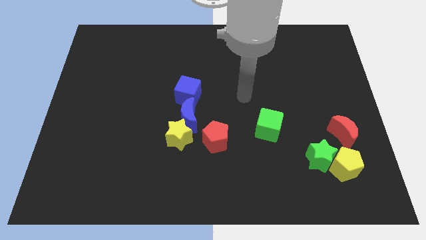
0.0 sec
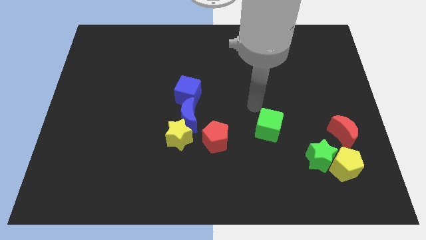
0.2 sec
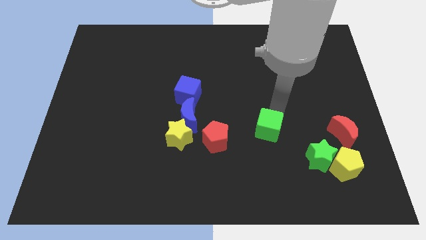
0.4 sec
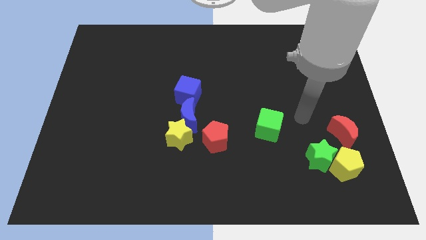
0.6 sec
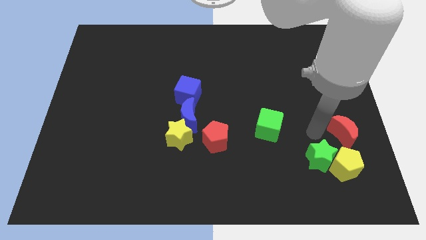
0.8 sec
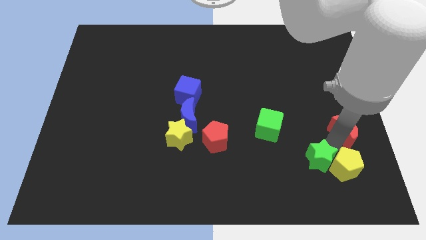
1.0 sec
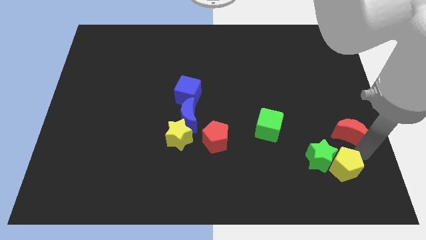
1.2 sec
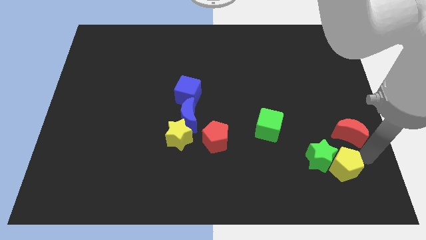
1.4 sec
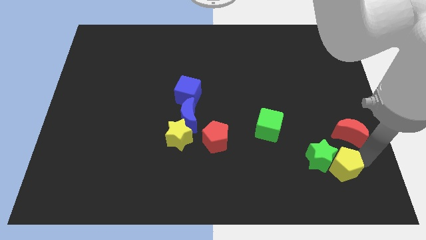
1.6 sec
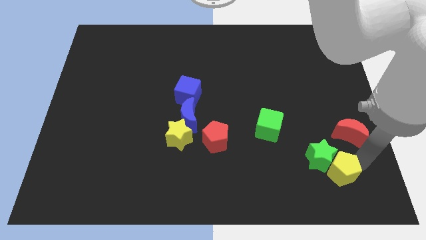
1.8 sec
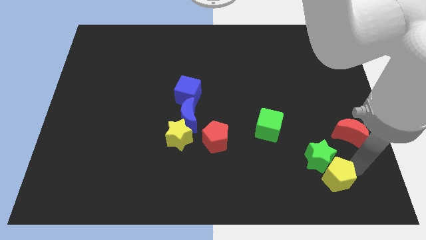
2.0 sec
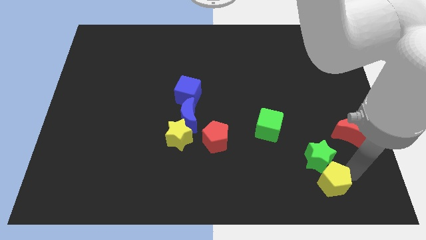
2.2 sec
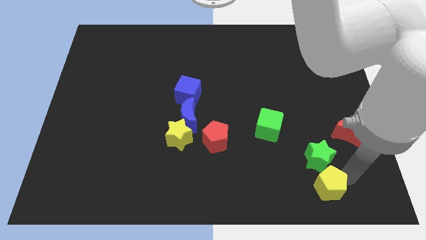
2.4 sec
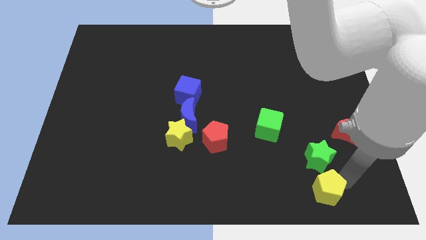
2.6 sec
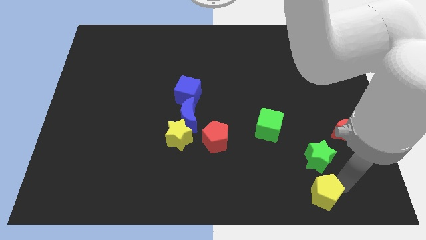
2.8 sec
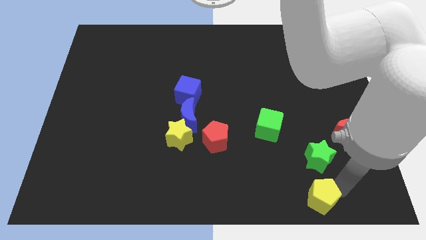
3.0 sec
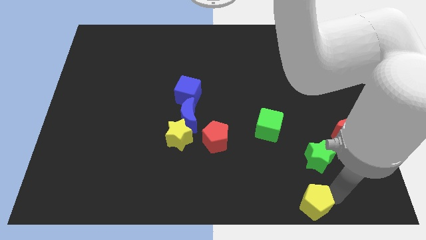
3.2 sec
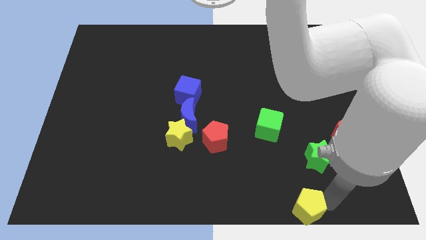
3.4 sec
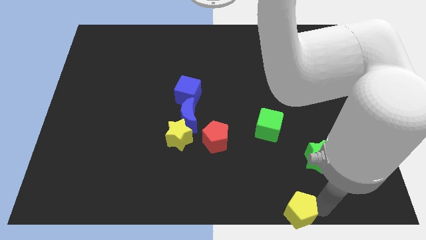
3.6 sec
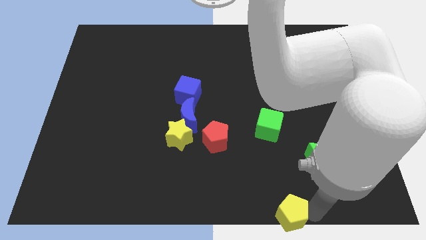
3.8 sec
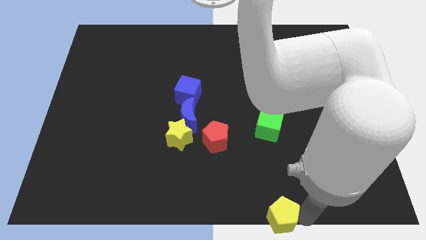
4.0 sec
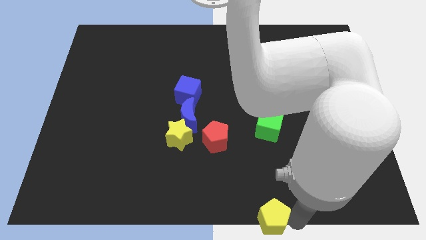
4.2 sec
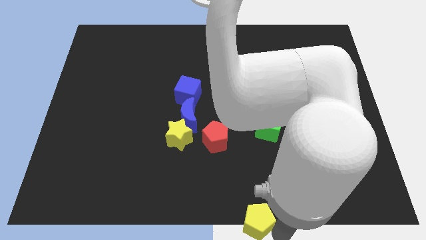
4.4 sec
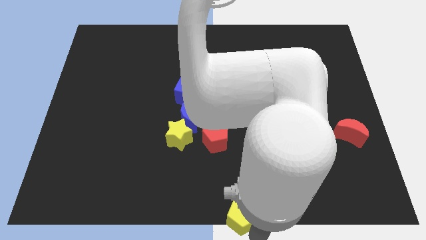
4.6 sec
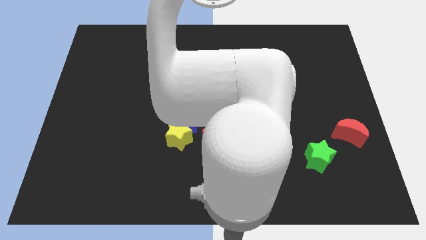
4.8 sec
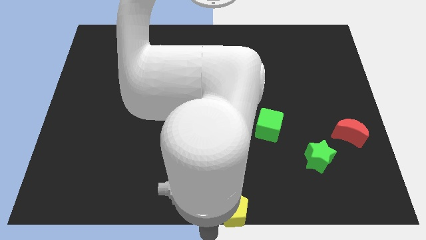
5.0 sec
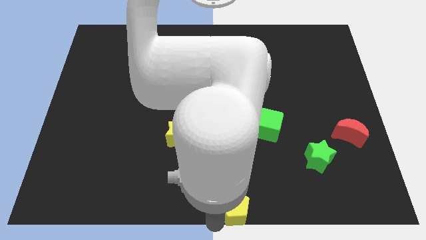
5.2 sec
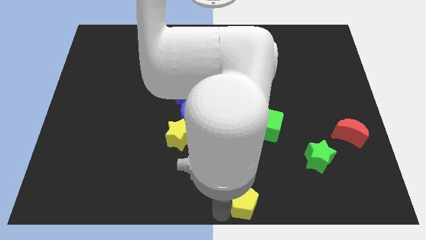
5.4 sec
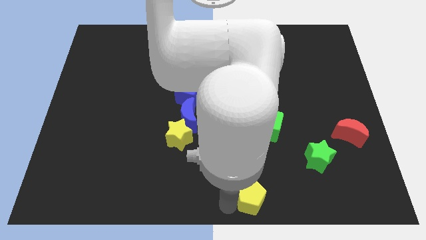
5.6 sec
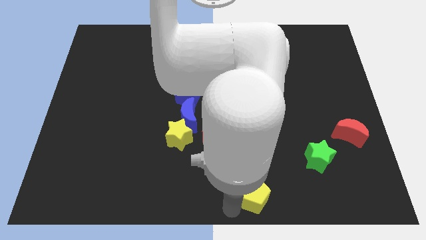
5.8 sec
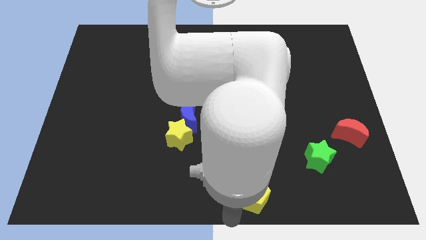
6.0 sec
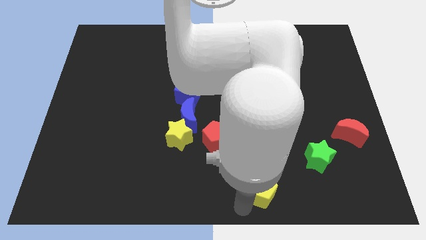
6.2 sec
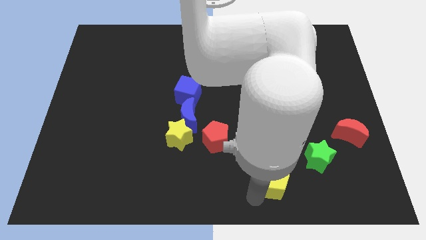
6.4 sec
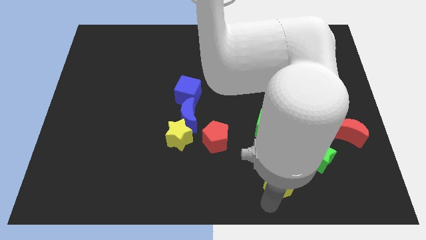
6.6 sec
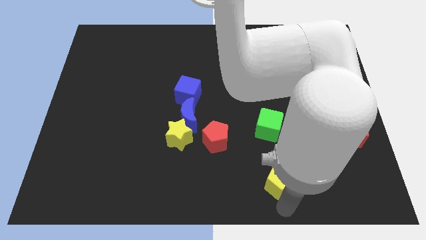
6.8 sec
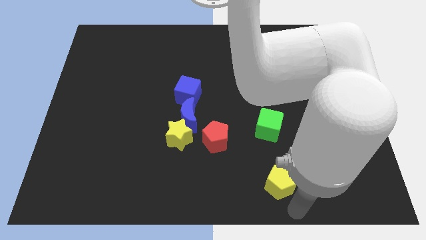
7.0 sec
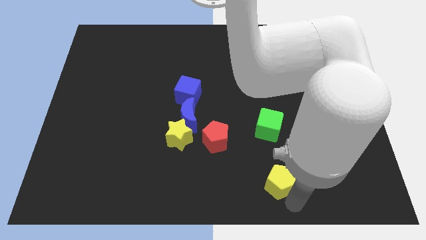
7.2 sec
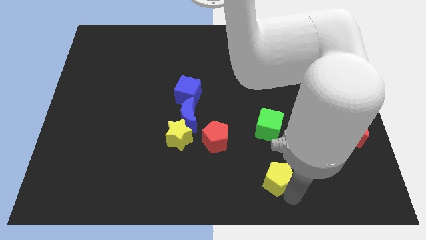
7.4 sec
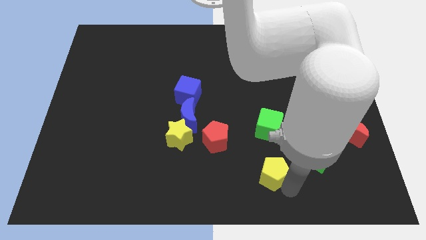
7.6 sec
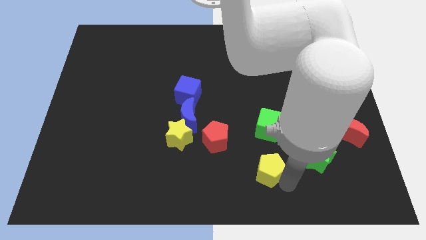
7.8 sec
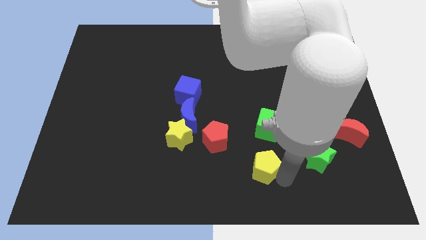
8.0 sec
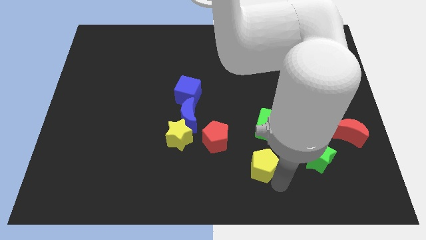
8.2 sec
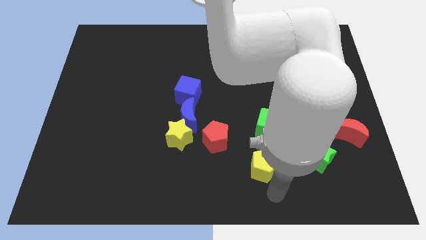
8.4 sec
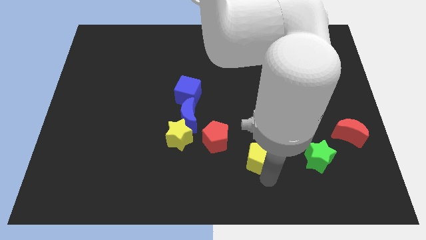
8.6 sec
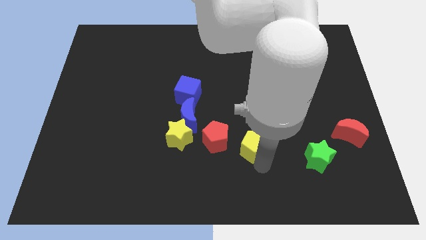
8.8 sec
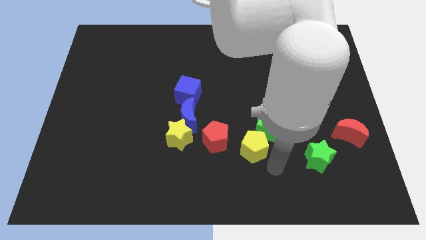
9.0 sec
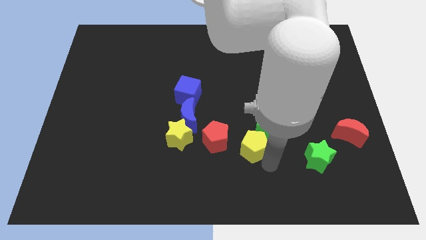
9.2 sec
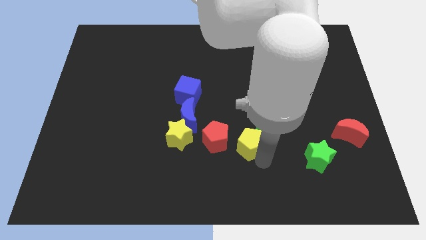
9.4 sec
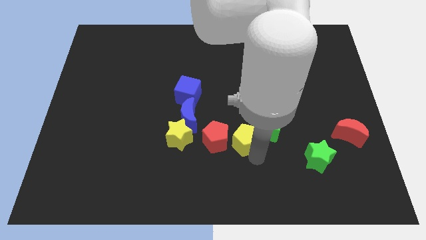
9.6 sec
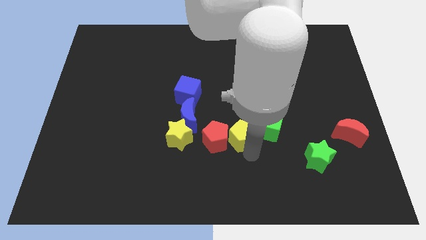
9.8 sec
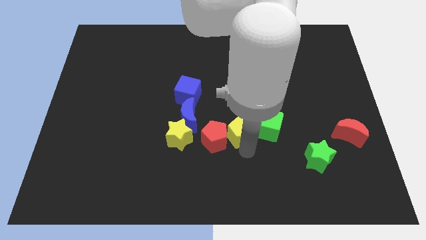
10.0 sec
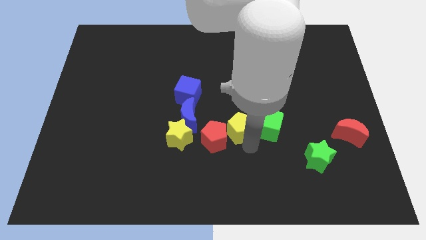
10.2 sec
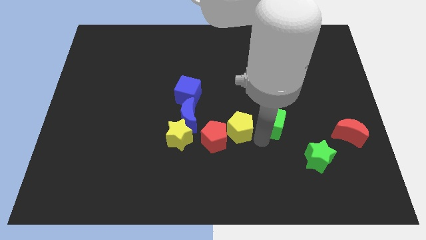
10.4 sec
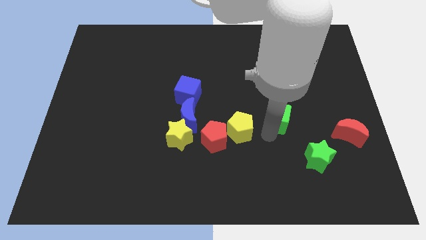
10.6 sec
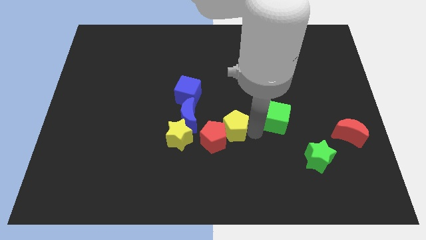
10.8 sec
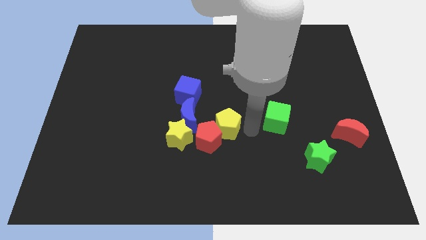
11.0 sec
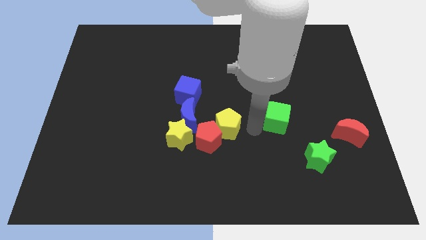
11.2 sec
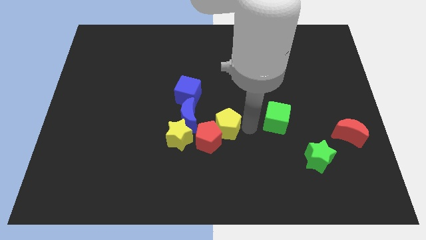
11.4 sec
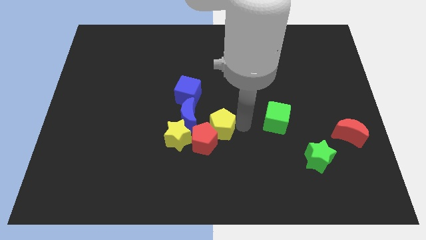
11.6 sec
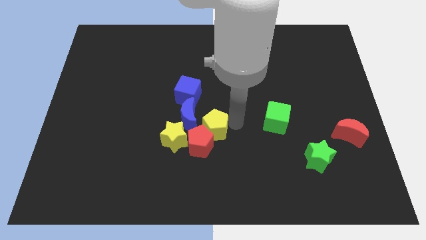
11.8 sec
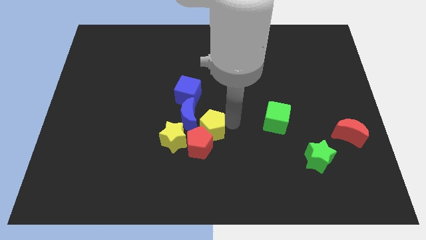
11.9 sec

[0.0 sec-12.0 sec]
slide the yellow pentagon next to the blue moon

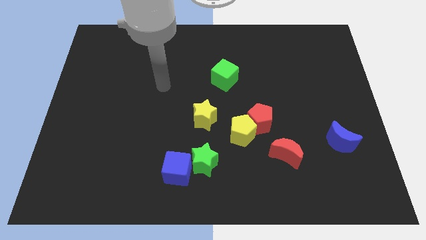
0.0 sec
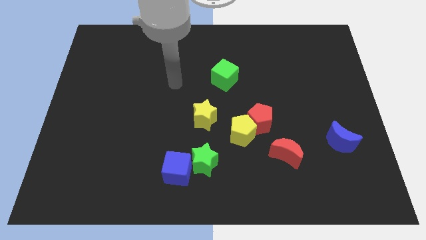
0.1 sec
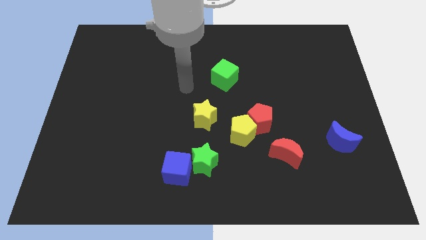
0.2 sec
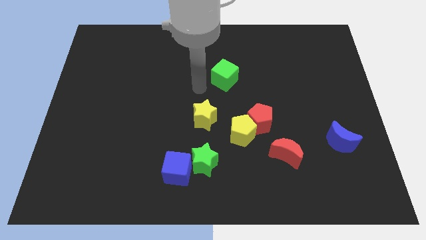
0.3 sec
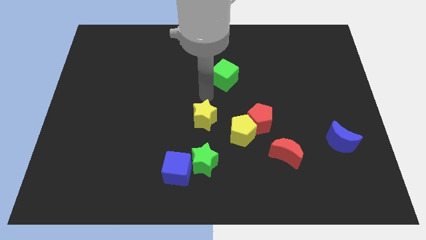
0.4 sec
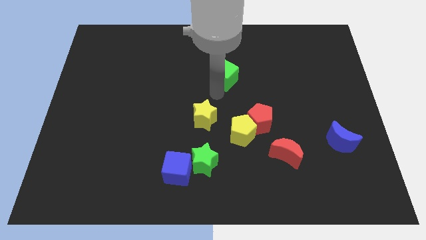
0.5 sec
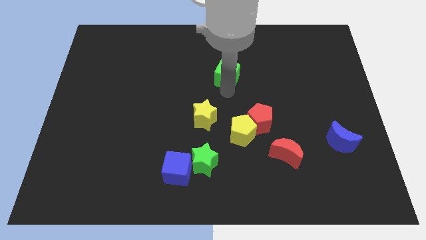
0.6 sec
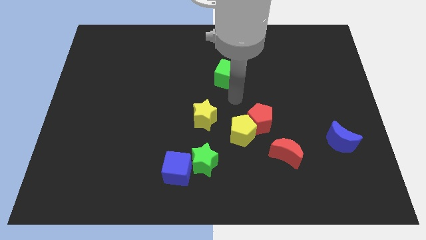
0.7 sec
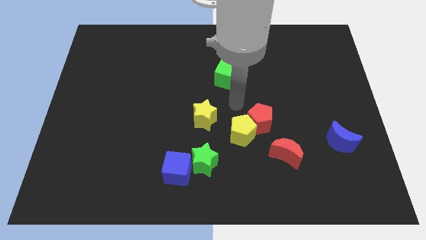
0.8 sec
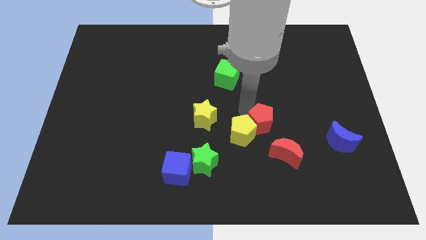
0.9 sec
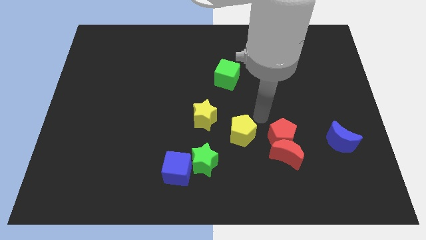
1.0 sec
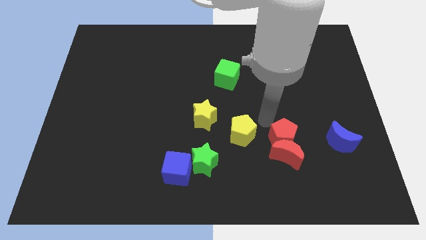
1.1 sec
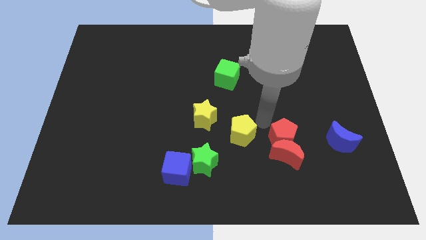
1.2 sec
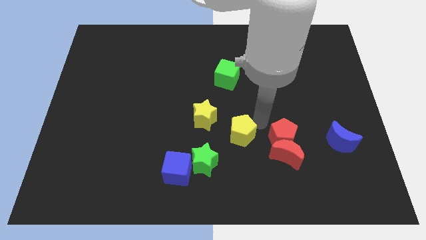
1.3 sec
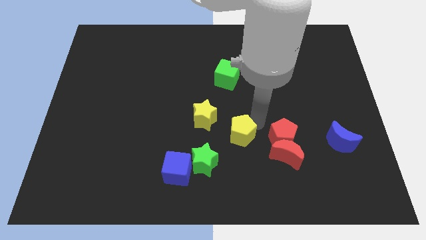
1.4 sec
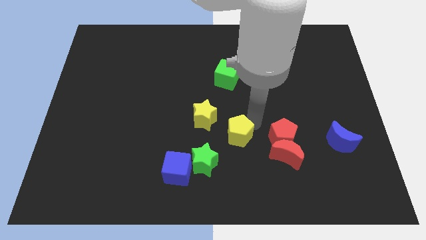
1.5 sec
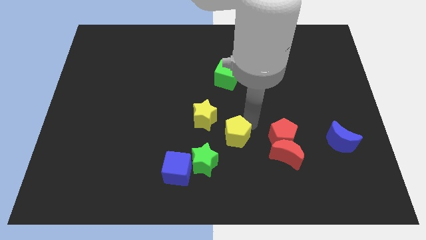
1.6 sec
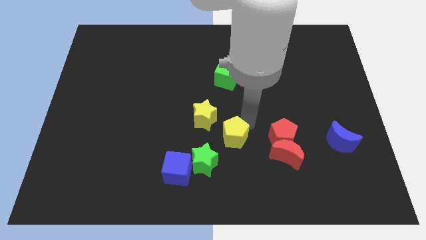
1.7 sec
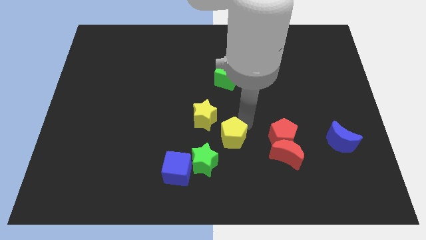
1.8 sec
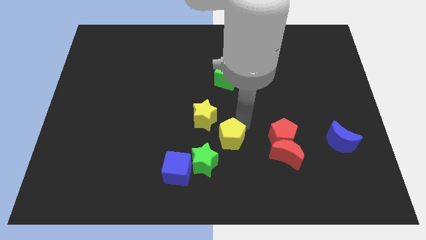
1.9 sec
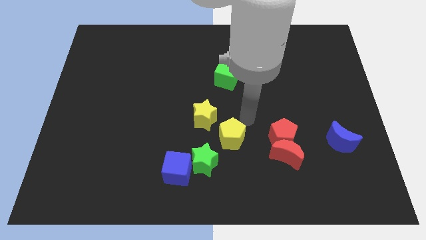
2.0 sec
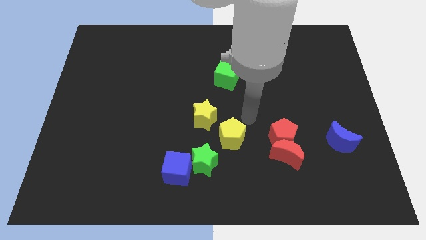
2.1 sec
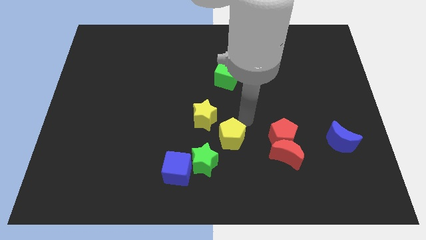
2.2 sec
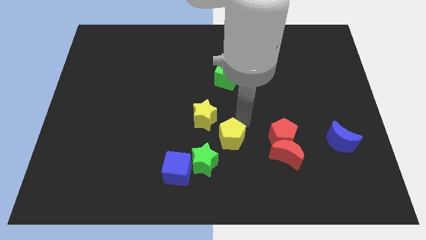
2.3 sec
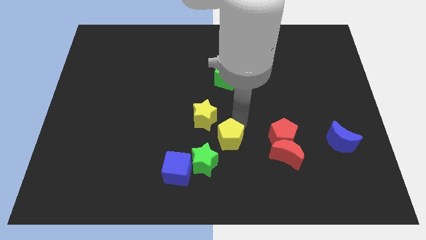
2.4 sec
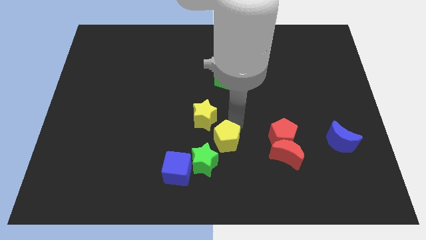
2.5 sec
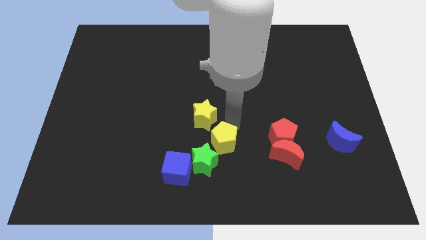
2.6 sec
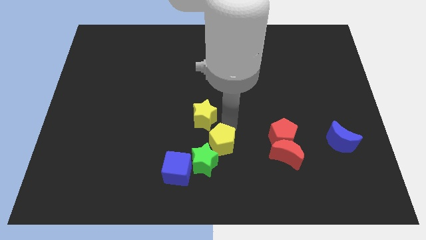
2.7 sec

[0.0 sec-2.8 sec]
put the yellow pentagon to the green star
